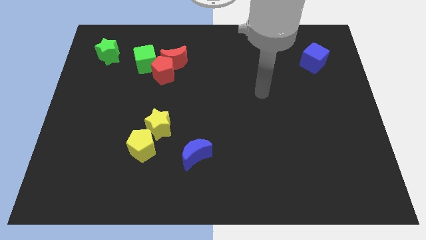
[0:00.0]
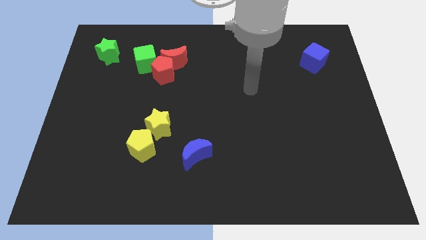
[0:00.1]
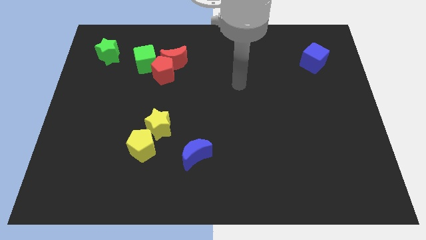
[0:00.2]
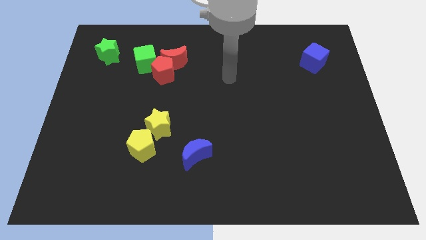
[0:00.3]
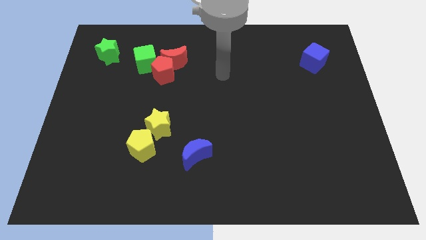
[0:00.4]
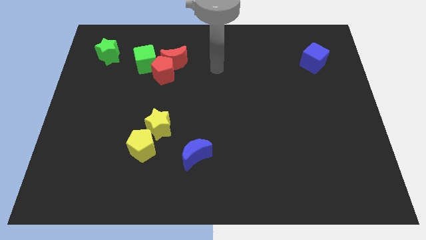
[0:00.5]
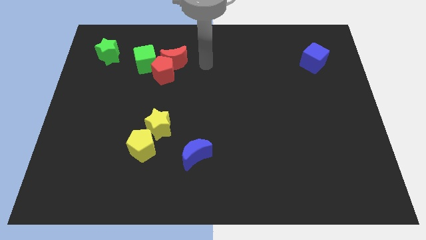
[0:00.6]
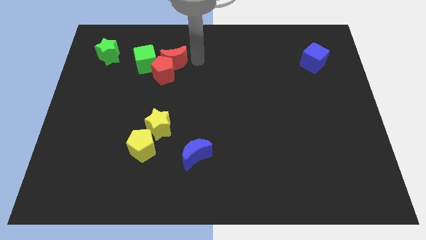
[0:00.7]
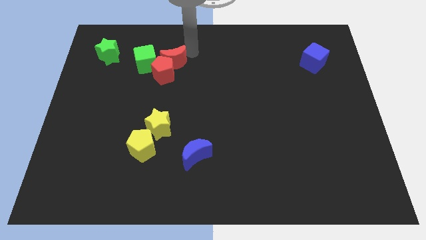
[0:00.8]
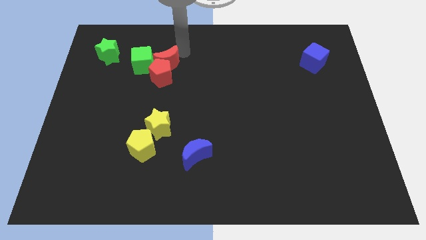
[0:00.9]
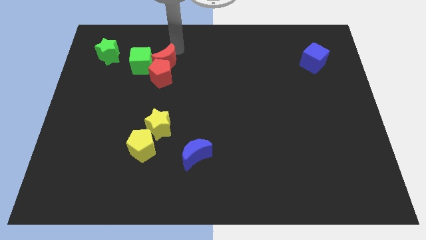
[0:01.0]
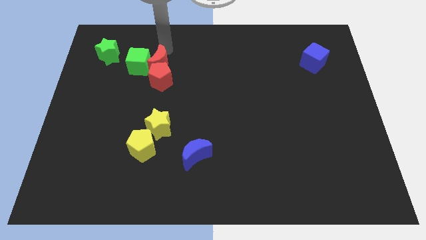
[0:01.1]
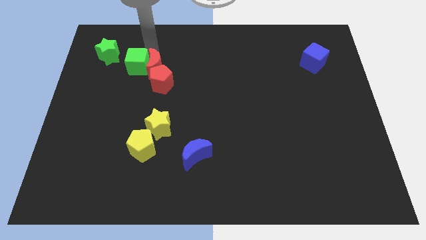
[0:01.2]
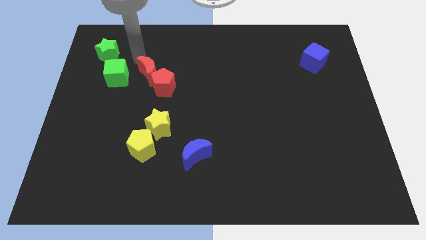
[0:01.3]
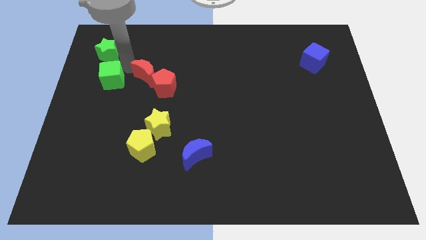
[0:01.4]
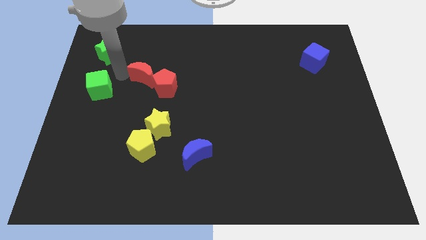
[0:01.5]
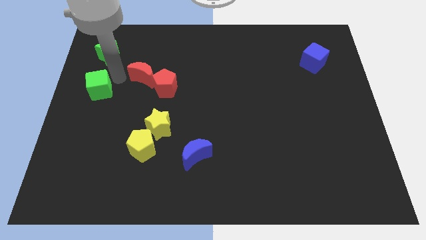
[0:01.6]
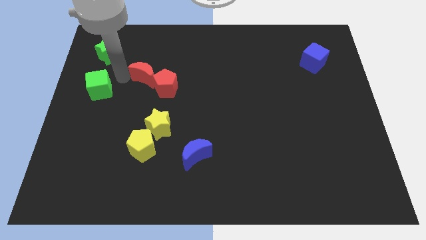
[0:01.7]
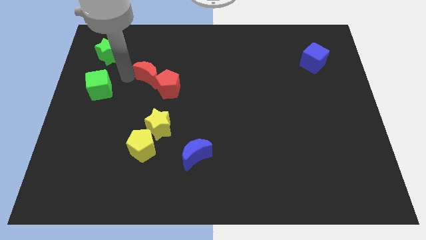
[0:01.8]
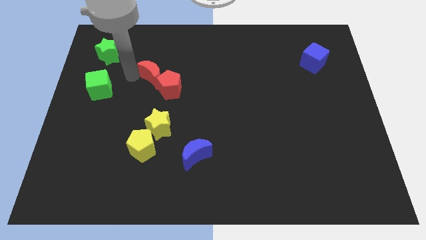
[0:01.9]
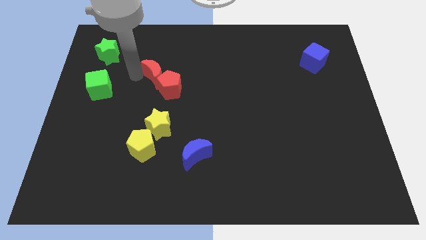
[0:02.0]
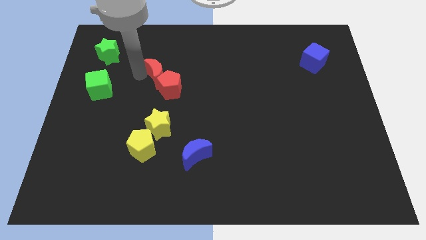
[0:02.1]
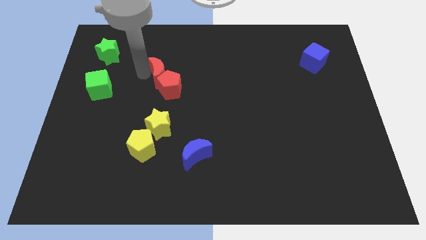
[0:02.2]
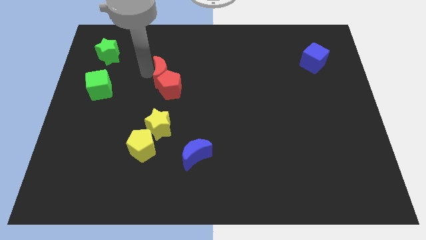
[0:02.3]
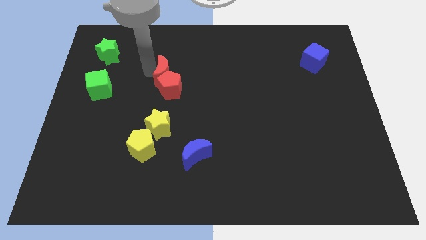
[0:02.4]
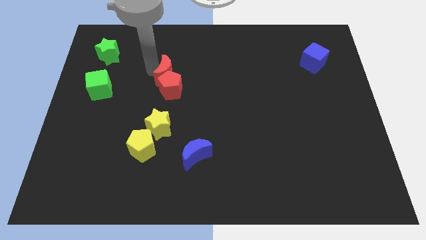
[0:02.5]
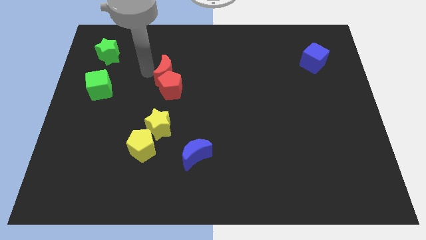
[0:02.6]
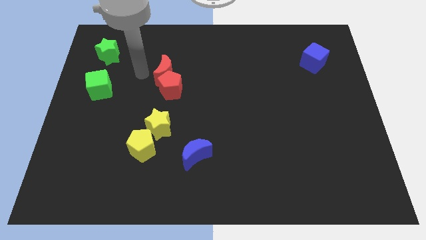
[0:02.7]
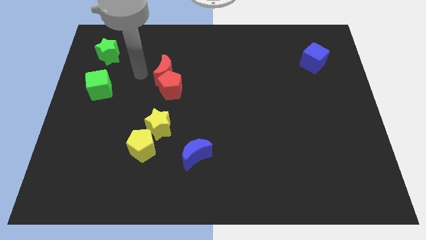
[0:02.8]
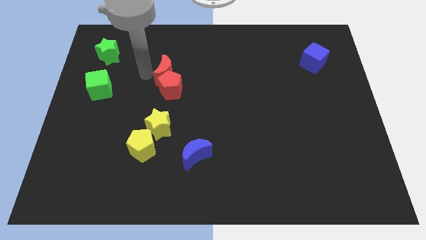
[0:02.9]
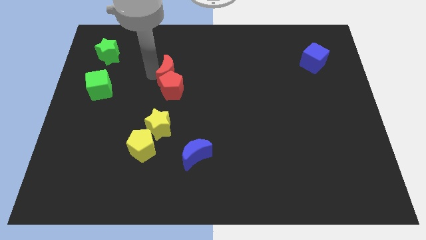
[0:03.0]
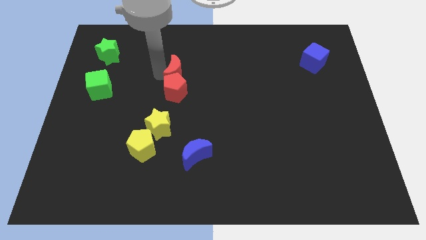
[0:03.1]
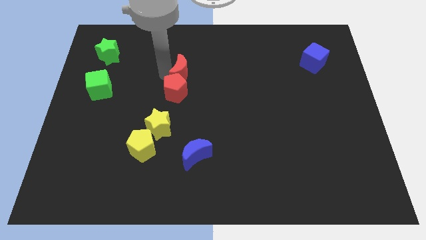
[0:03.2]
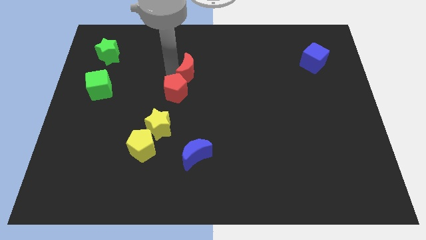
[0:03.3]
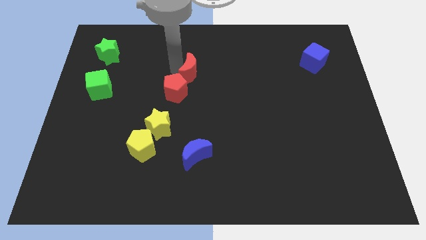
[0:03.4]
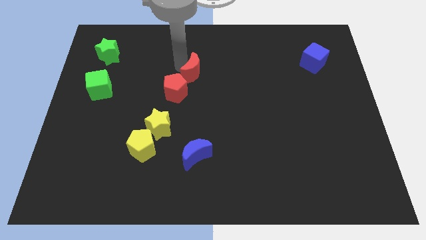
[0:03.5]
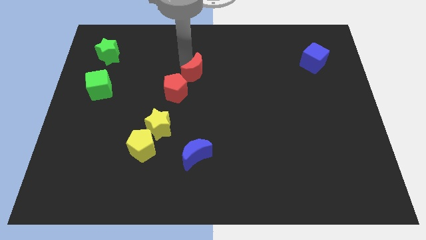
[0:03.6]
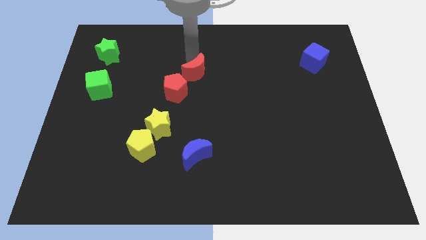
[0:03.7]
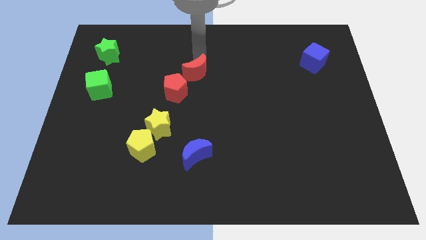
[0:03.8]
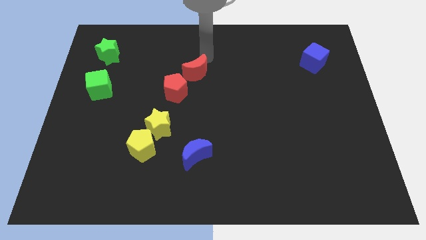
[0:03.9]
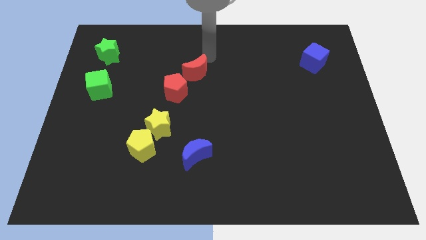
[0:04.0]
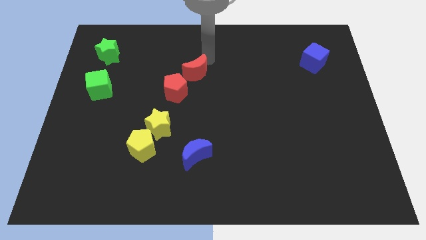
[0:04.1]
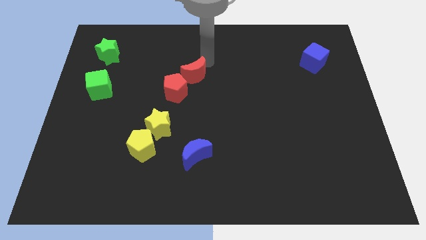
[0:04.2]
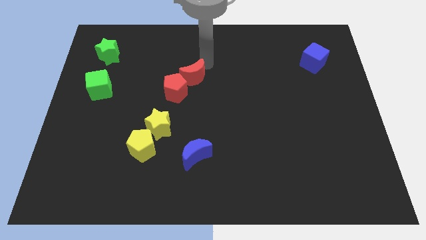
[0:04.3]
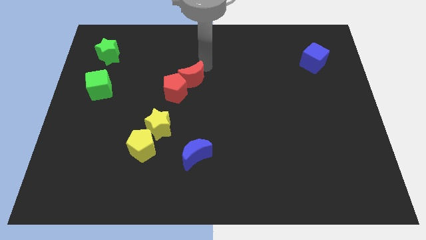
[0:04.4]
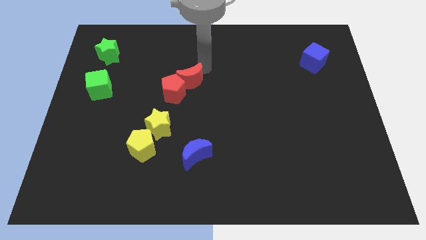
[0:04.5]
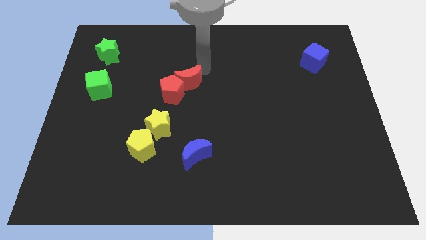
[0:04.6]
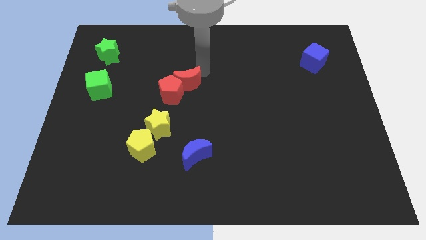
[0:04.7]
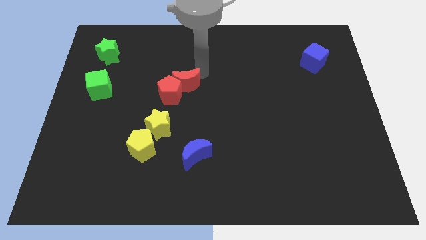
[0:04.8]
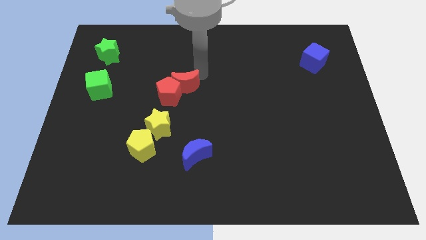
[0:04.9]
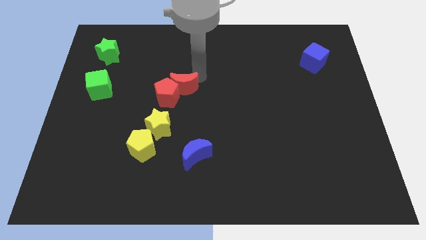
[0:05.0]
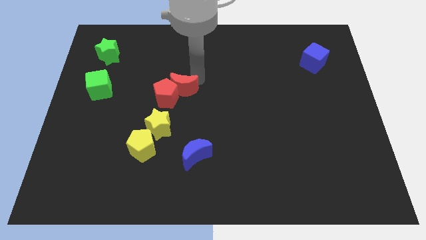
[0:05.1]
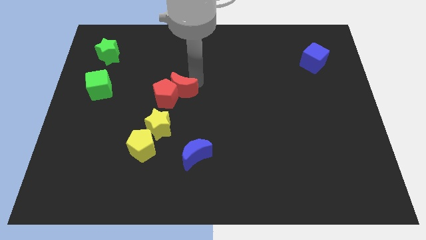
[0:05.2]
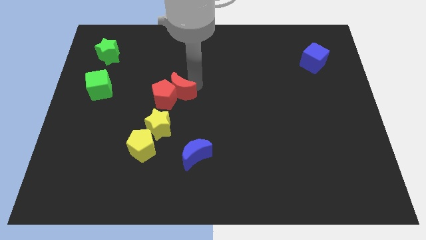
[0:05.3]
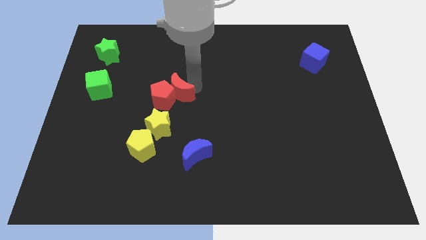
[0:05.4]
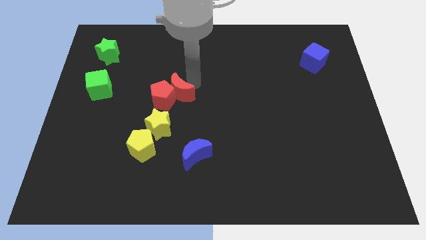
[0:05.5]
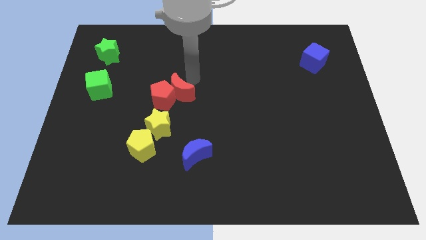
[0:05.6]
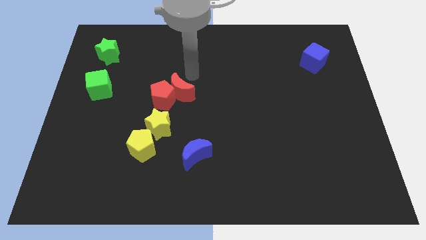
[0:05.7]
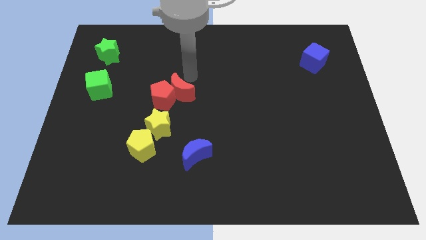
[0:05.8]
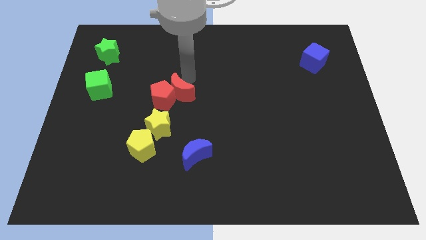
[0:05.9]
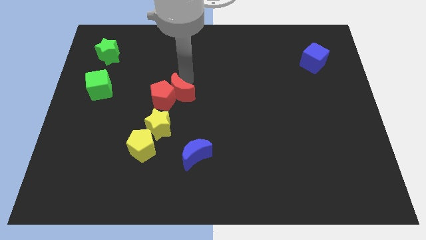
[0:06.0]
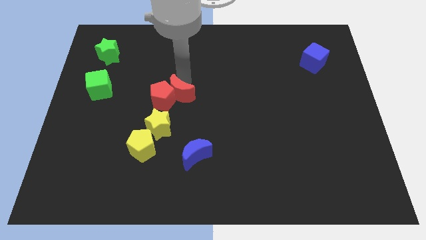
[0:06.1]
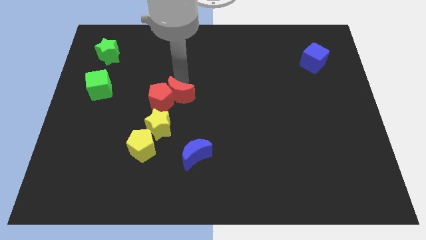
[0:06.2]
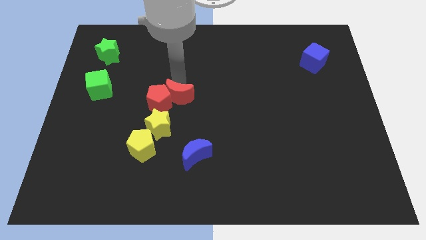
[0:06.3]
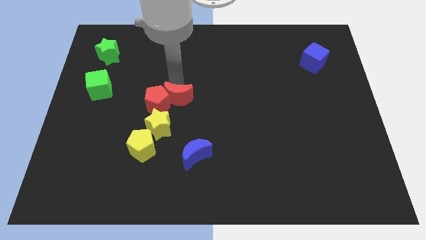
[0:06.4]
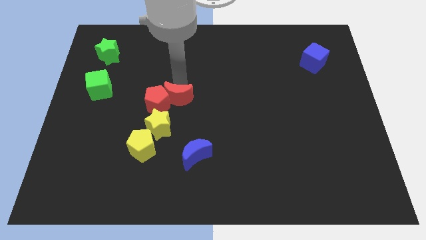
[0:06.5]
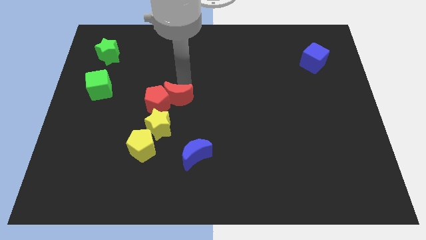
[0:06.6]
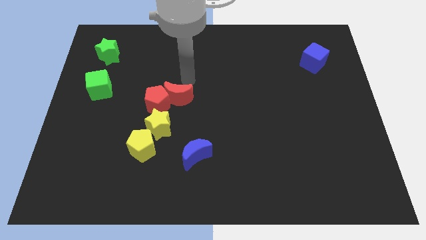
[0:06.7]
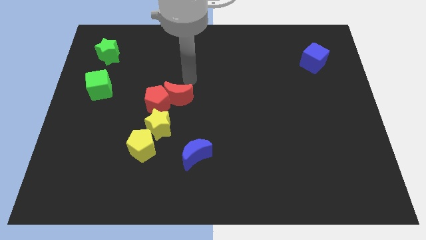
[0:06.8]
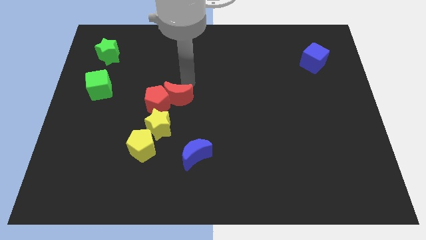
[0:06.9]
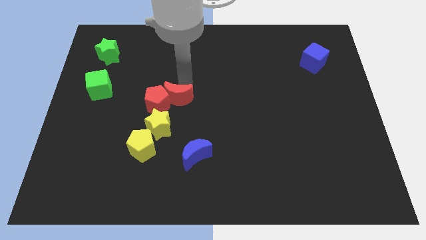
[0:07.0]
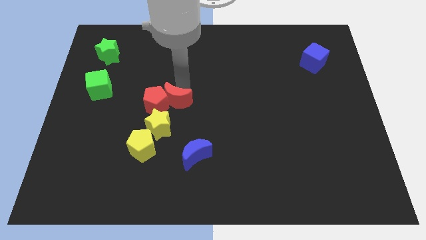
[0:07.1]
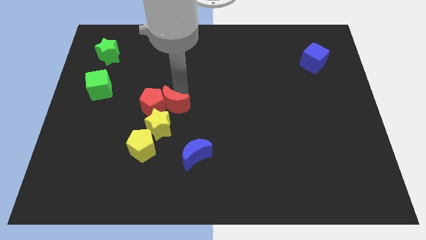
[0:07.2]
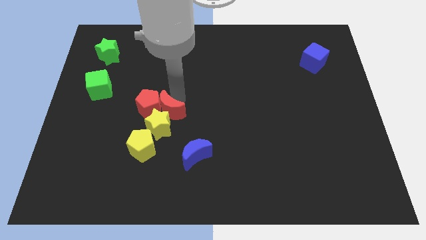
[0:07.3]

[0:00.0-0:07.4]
move the red moon towards the yellow star
